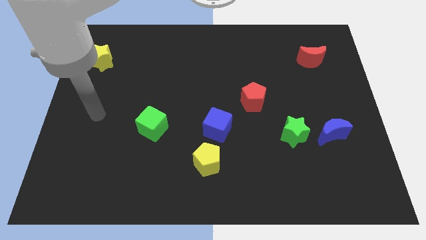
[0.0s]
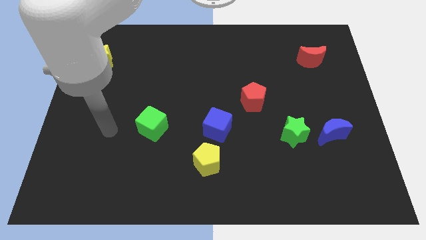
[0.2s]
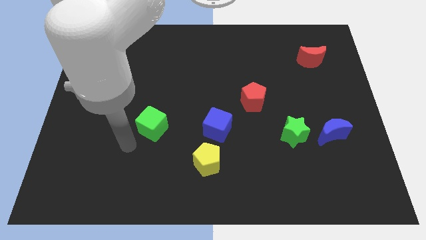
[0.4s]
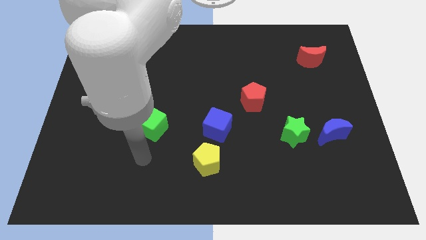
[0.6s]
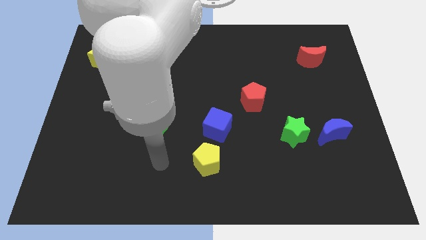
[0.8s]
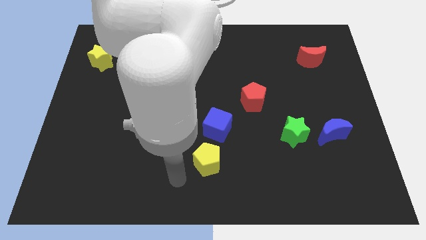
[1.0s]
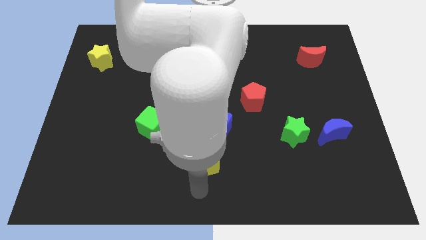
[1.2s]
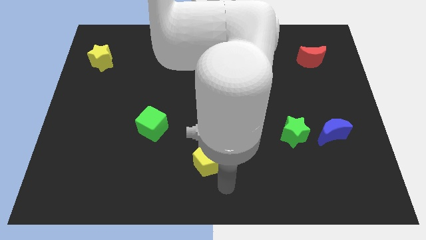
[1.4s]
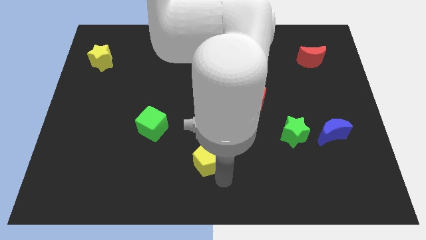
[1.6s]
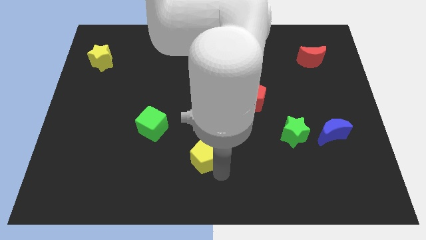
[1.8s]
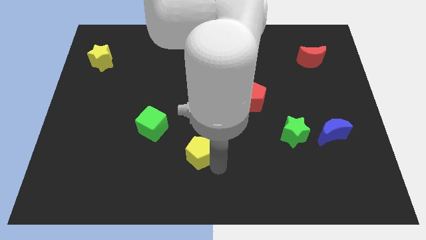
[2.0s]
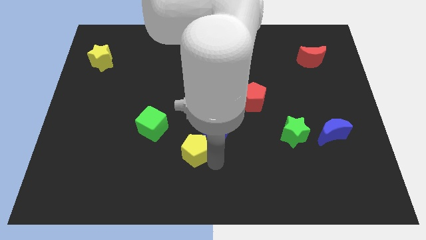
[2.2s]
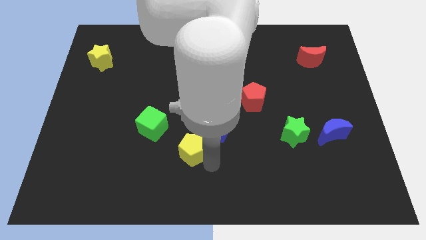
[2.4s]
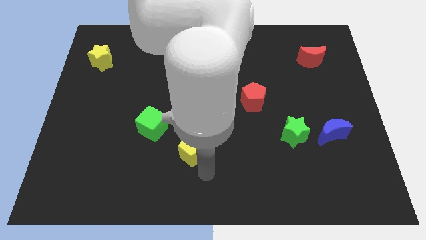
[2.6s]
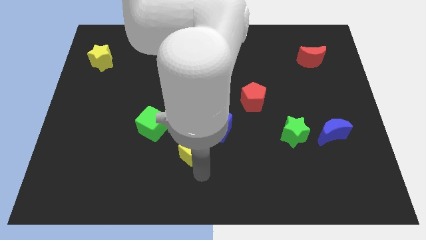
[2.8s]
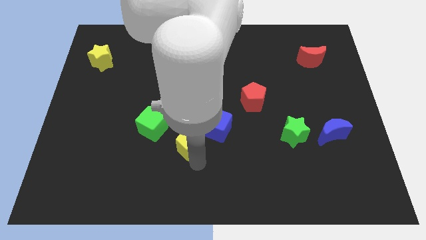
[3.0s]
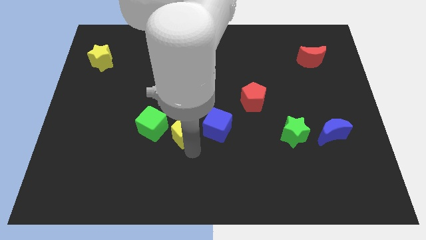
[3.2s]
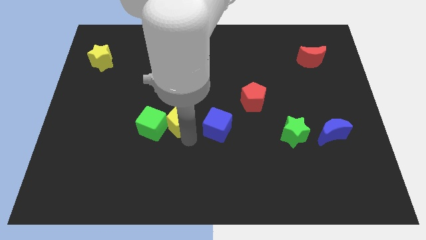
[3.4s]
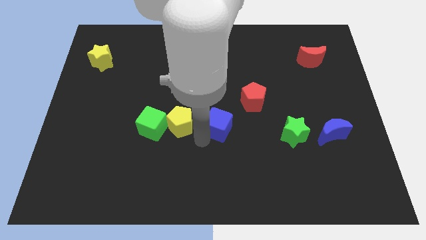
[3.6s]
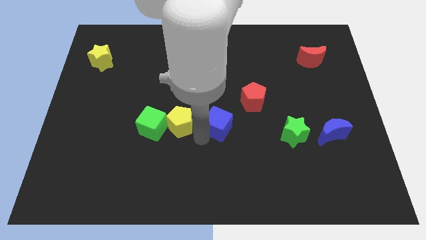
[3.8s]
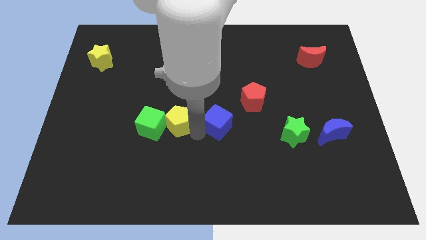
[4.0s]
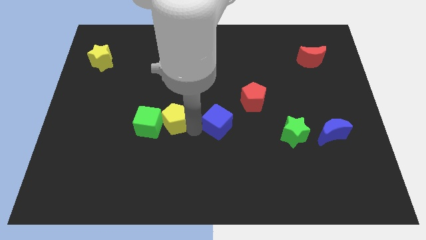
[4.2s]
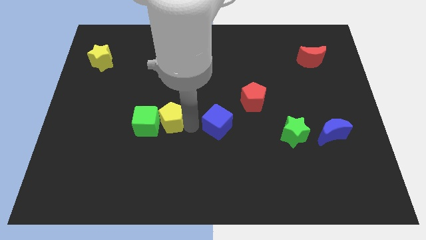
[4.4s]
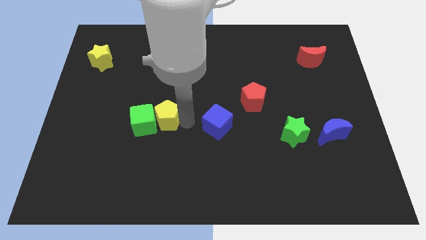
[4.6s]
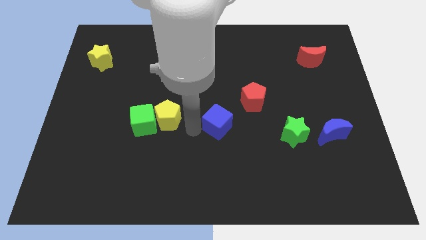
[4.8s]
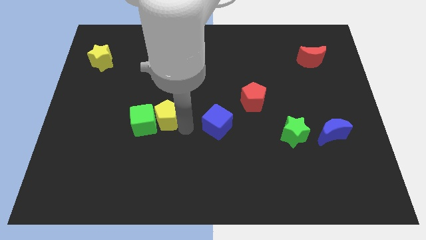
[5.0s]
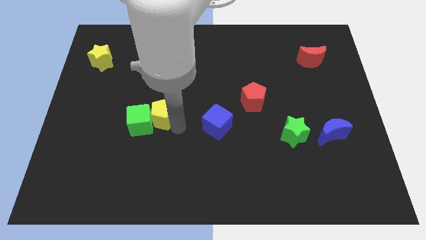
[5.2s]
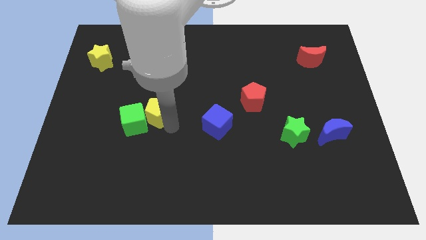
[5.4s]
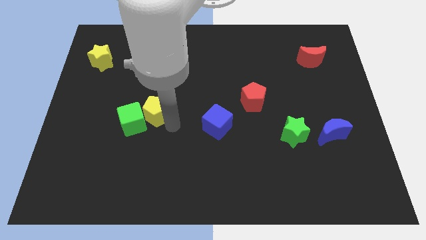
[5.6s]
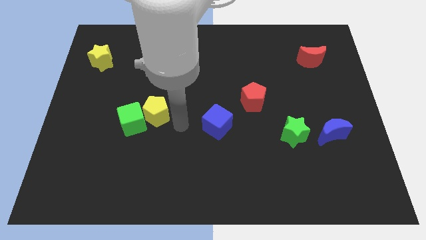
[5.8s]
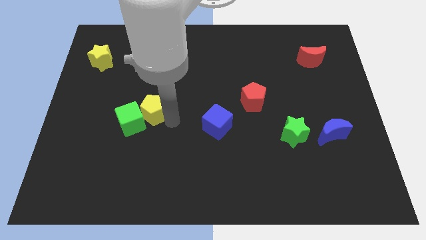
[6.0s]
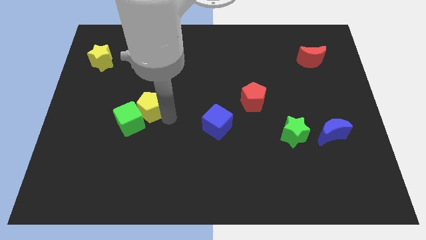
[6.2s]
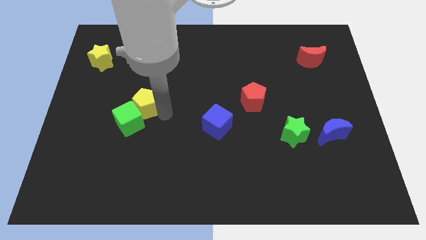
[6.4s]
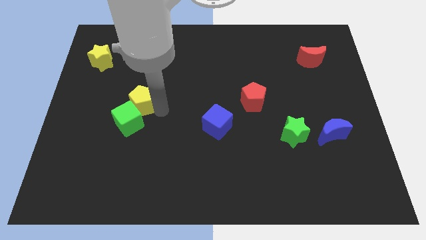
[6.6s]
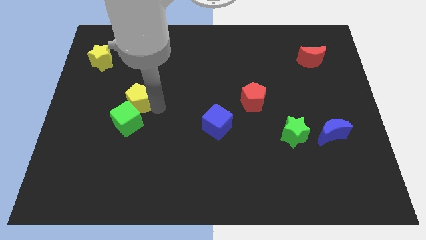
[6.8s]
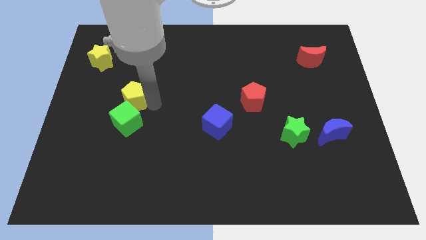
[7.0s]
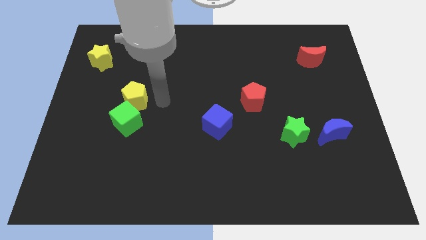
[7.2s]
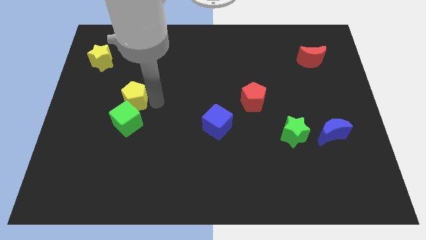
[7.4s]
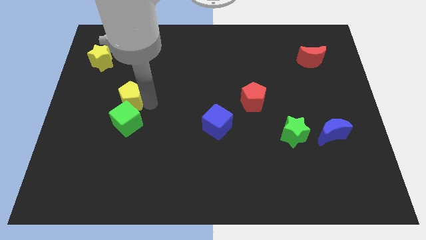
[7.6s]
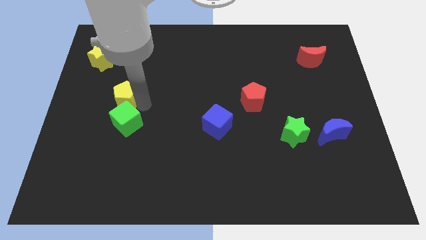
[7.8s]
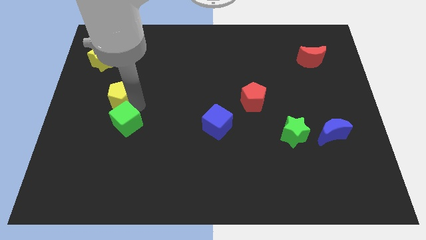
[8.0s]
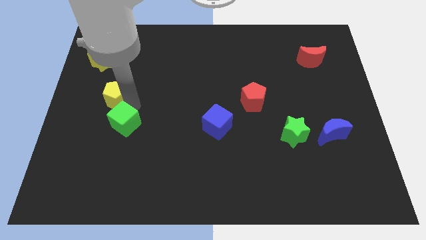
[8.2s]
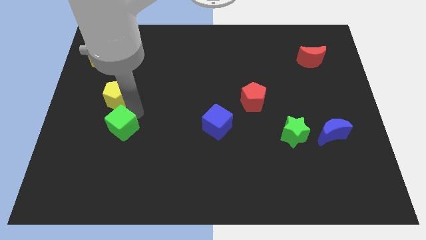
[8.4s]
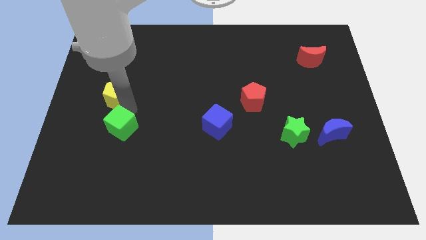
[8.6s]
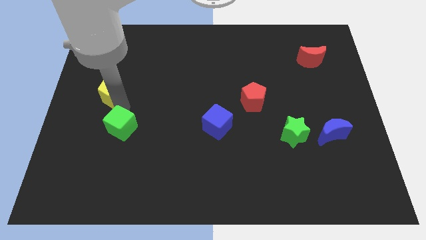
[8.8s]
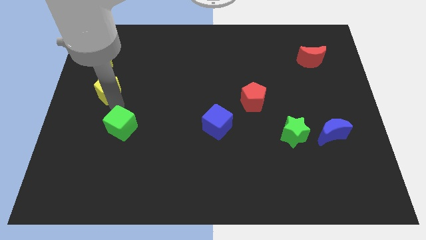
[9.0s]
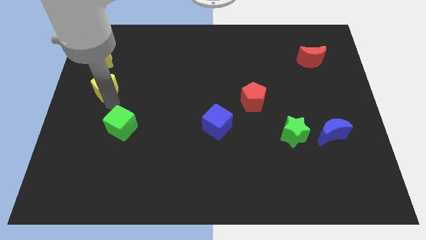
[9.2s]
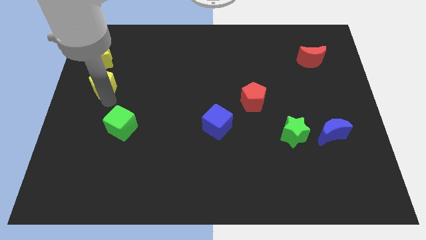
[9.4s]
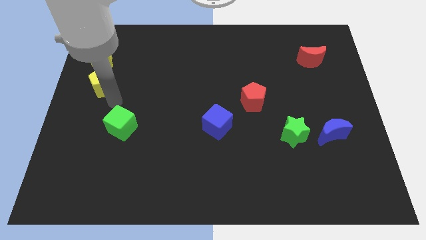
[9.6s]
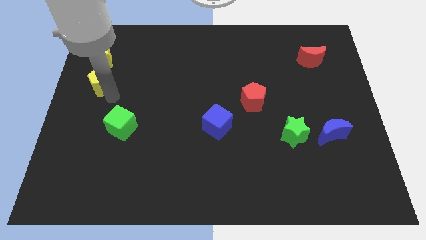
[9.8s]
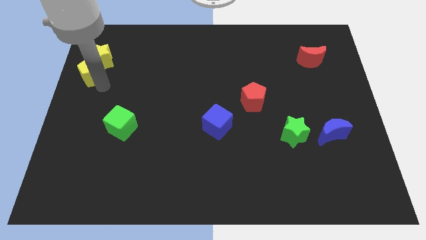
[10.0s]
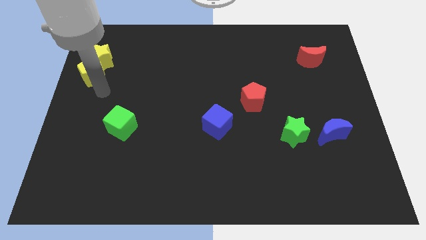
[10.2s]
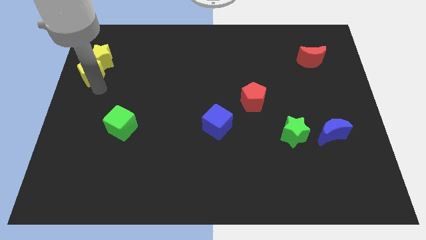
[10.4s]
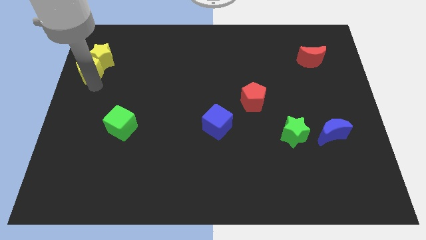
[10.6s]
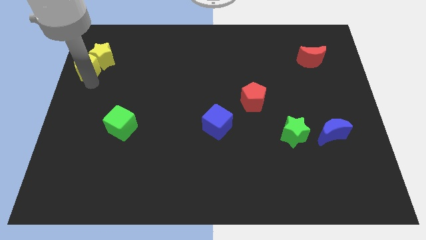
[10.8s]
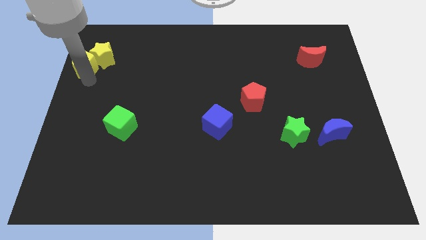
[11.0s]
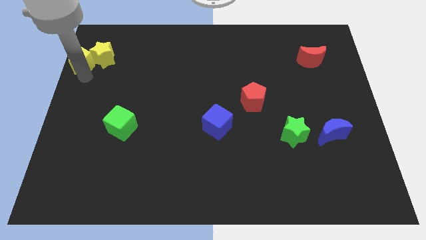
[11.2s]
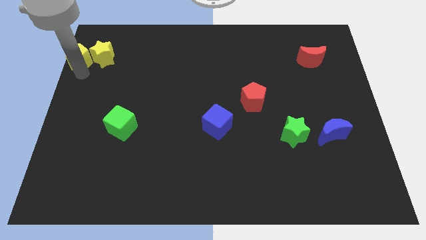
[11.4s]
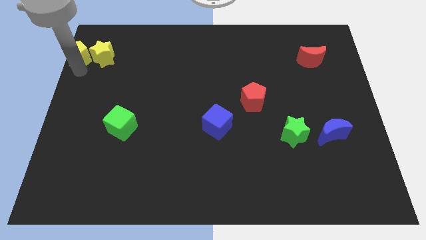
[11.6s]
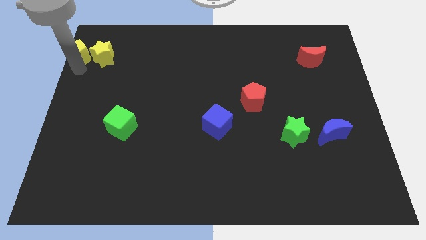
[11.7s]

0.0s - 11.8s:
push the yellow pentagon to the upper left corner

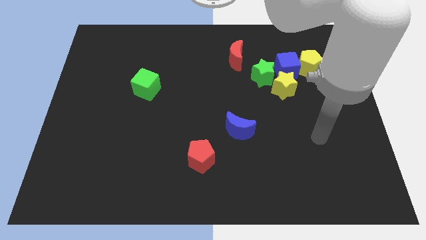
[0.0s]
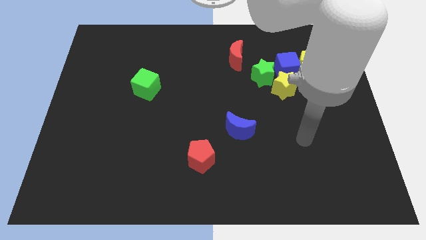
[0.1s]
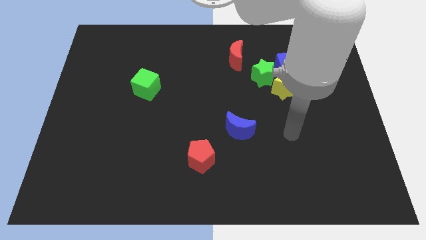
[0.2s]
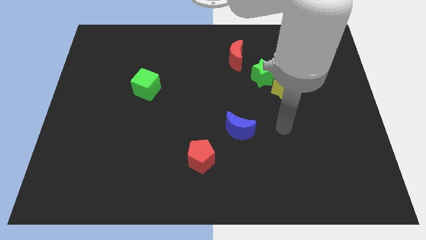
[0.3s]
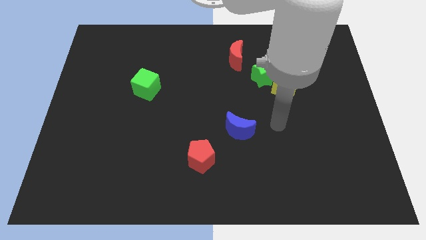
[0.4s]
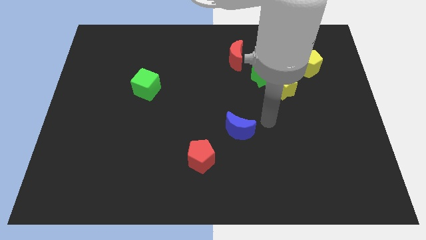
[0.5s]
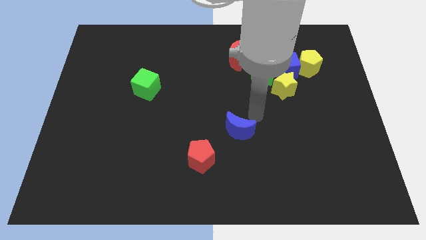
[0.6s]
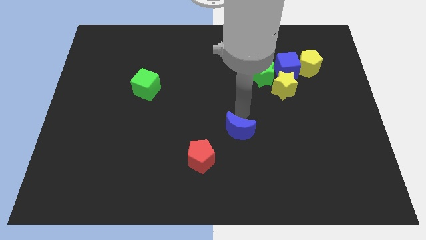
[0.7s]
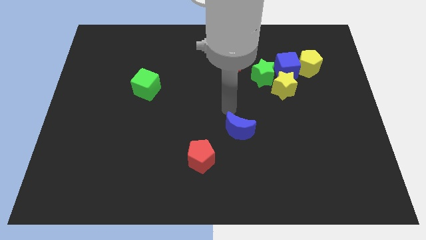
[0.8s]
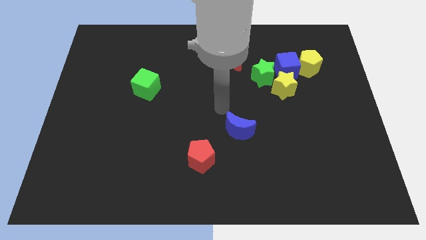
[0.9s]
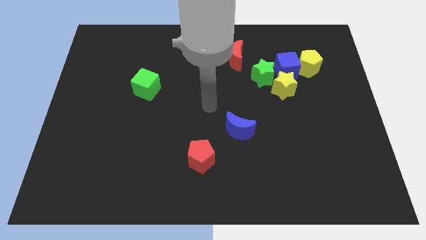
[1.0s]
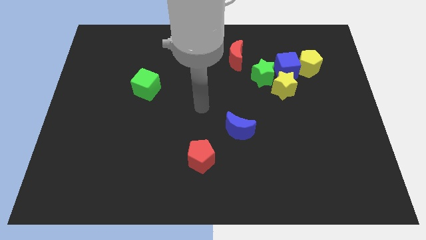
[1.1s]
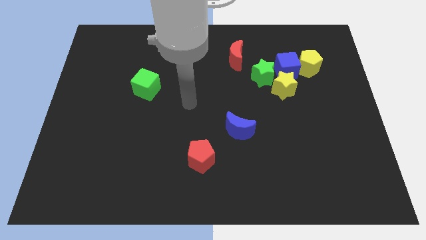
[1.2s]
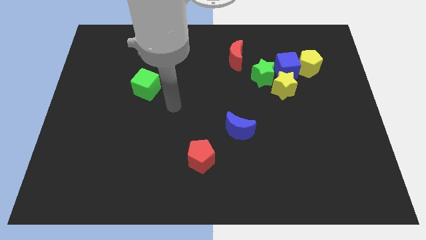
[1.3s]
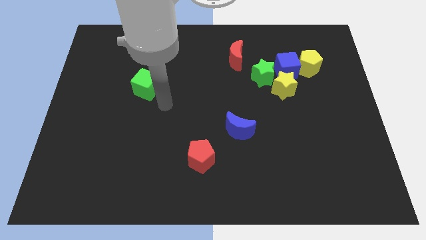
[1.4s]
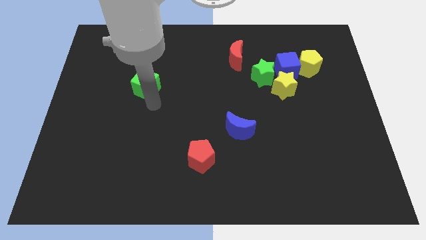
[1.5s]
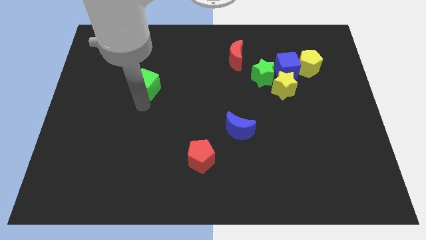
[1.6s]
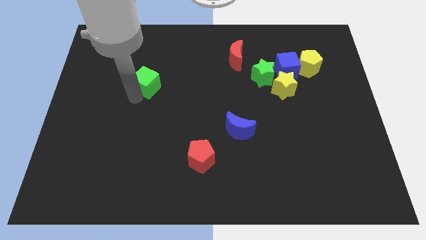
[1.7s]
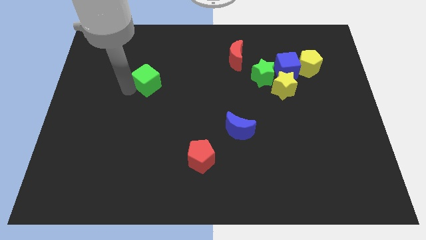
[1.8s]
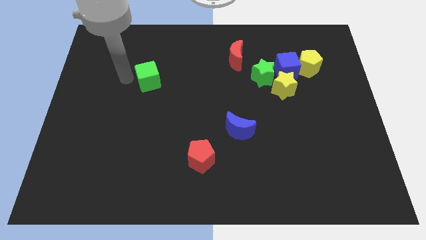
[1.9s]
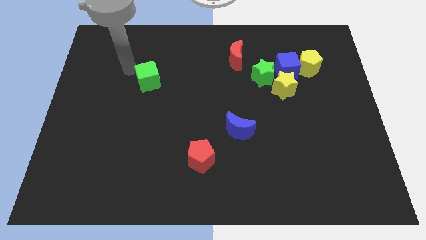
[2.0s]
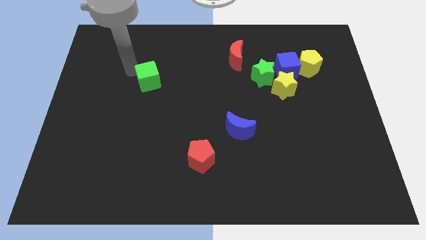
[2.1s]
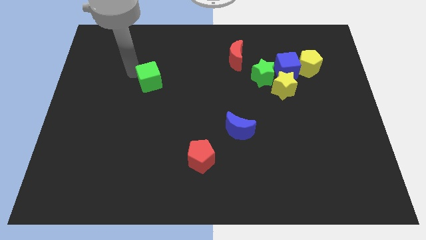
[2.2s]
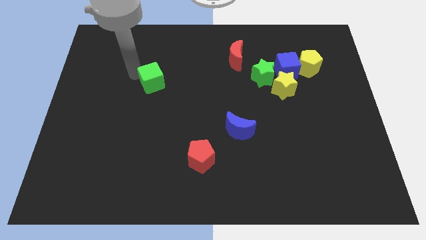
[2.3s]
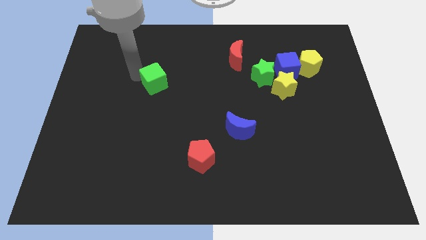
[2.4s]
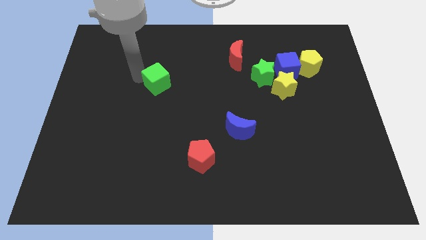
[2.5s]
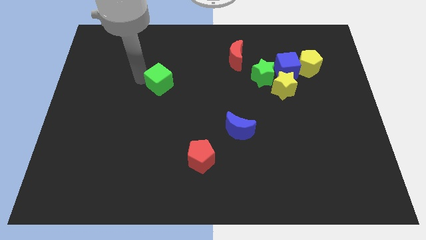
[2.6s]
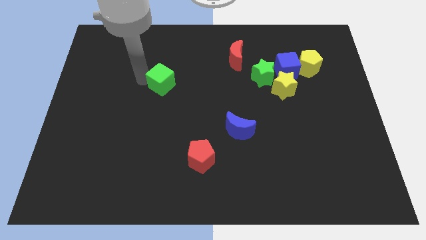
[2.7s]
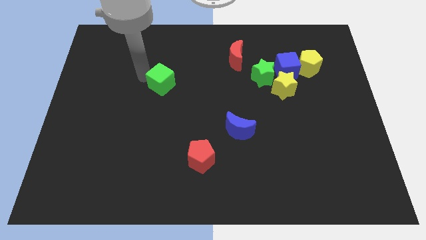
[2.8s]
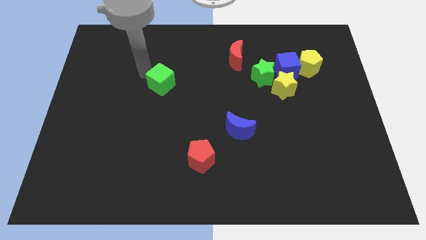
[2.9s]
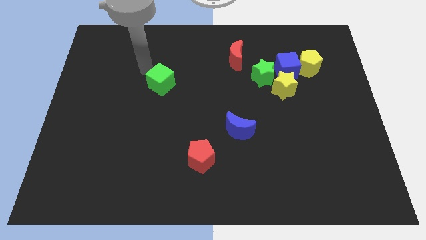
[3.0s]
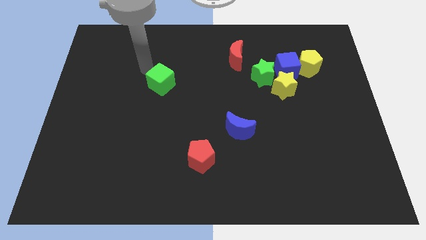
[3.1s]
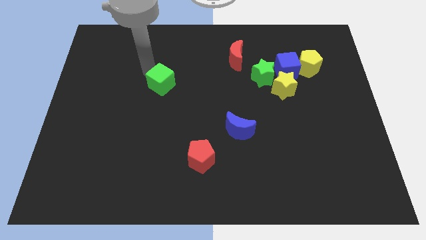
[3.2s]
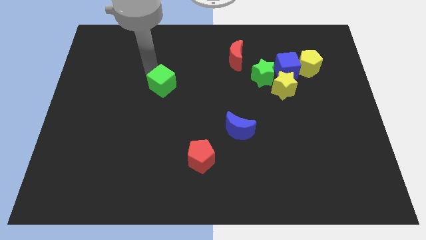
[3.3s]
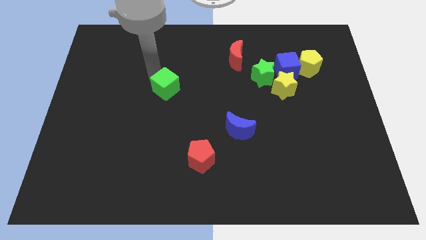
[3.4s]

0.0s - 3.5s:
push the green cube to the middle
